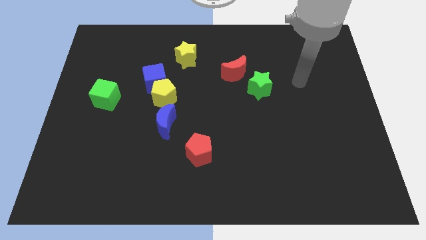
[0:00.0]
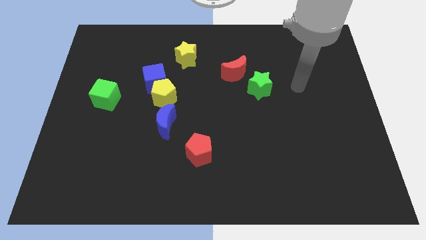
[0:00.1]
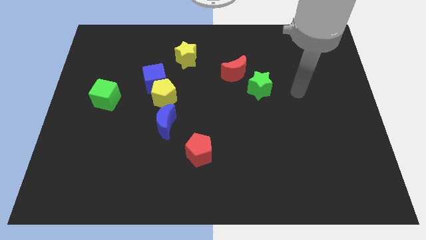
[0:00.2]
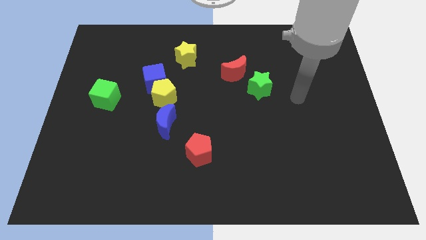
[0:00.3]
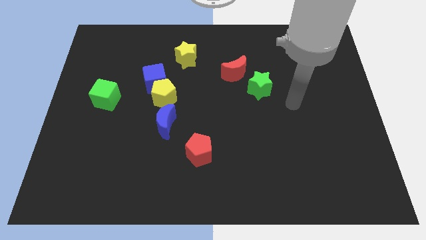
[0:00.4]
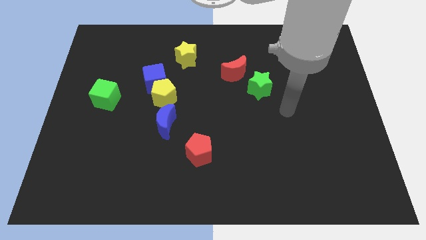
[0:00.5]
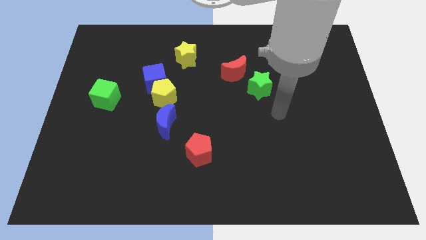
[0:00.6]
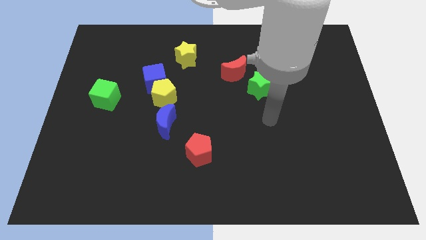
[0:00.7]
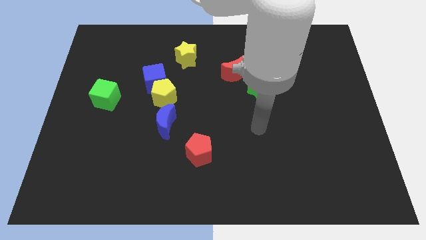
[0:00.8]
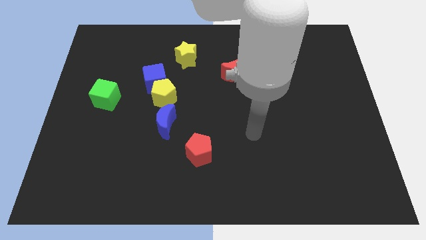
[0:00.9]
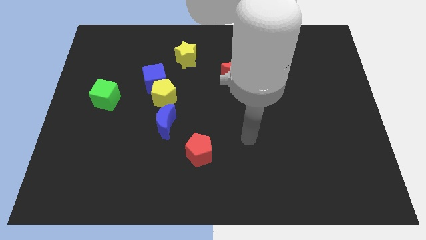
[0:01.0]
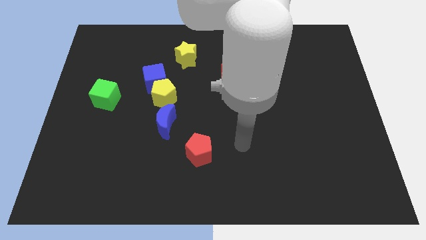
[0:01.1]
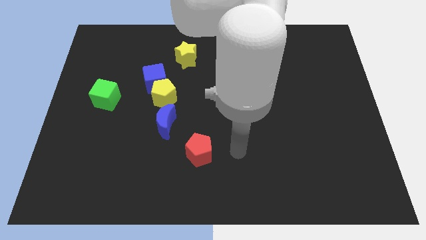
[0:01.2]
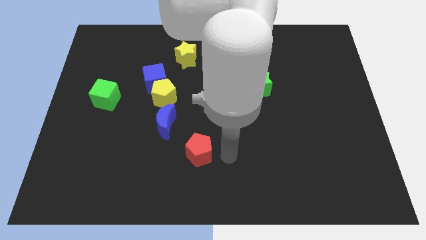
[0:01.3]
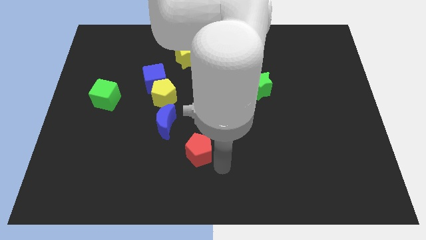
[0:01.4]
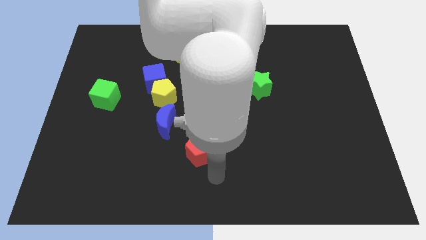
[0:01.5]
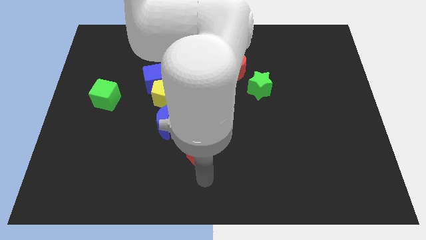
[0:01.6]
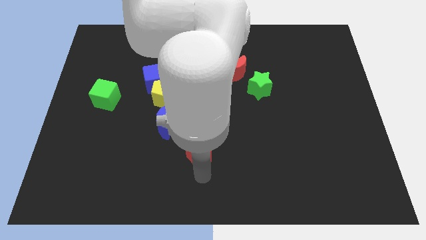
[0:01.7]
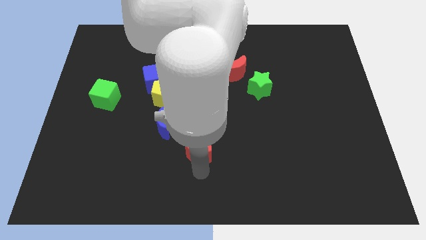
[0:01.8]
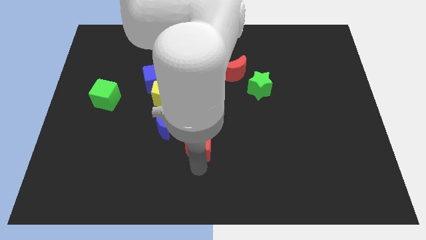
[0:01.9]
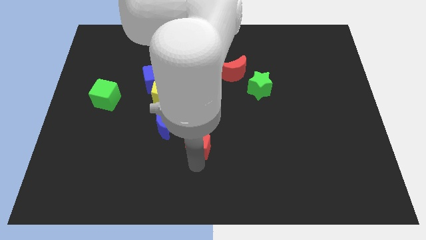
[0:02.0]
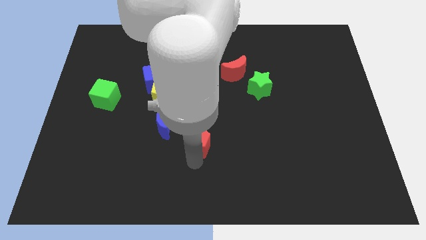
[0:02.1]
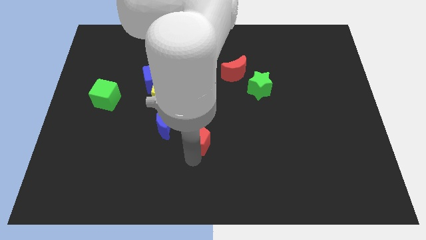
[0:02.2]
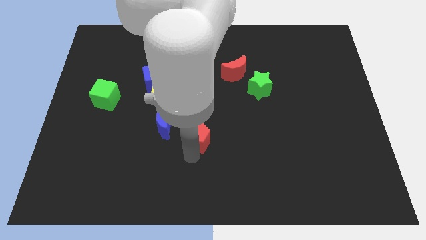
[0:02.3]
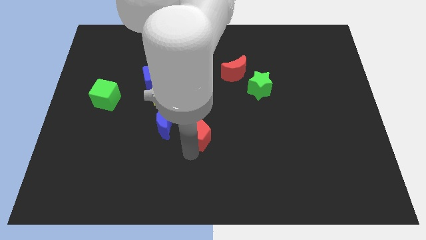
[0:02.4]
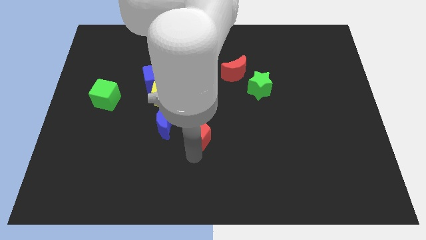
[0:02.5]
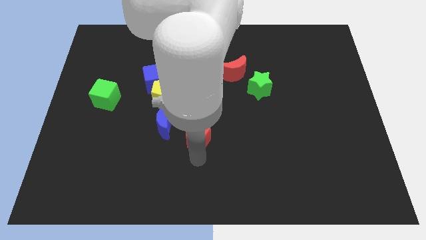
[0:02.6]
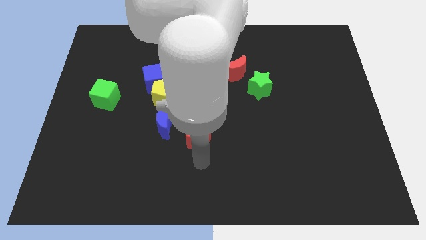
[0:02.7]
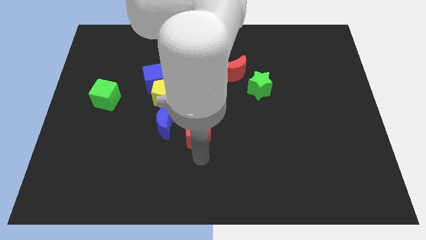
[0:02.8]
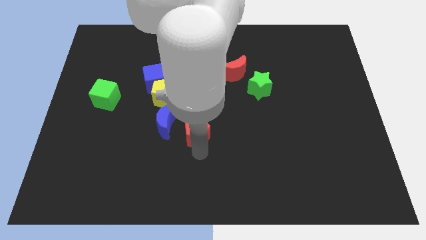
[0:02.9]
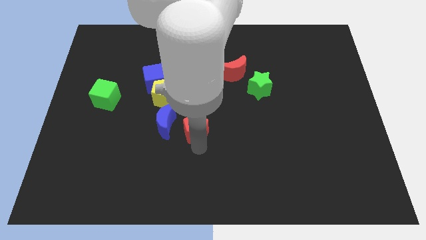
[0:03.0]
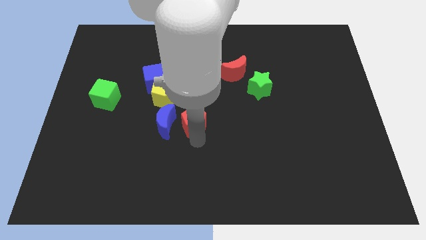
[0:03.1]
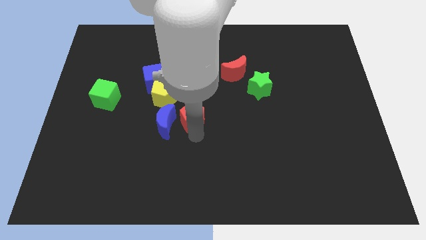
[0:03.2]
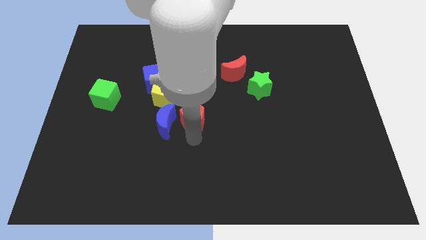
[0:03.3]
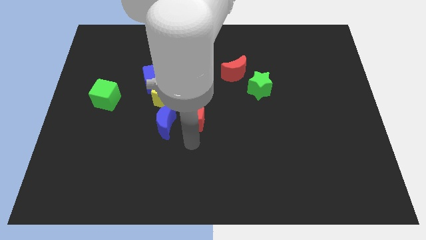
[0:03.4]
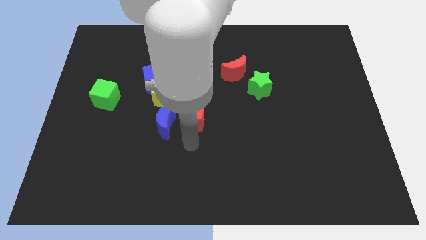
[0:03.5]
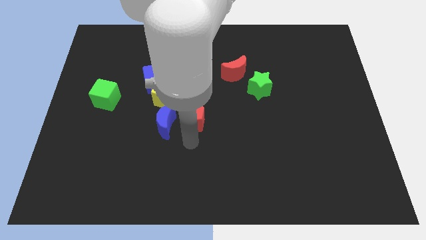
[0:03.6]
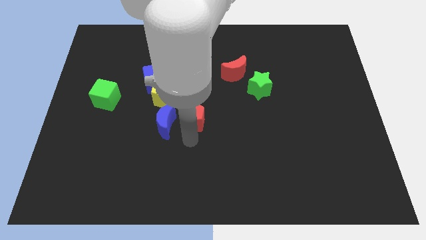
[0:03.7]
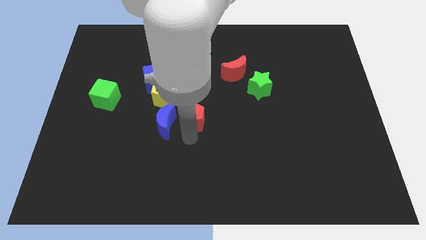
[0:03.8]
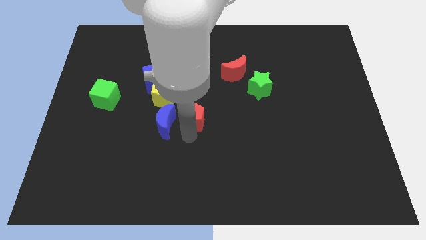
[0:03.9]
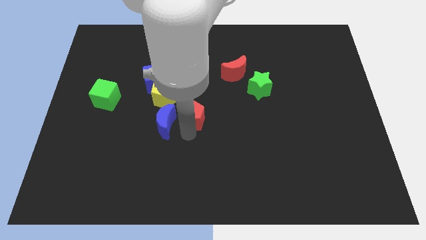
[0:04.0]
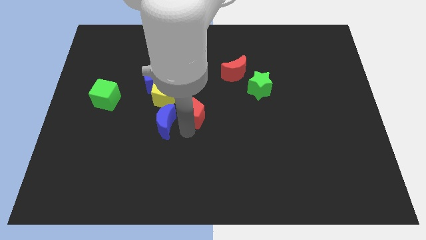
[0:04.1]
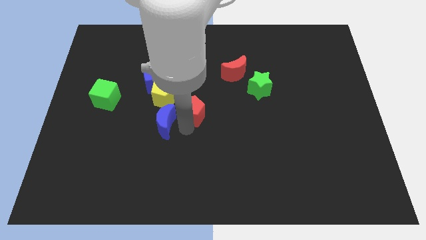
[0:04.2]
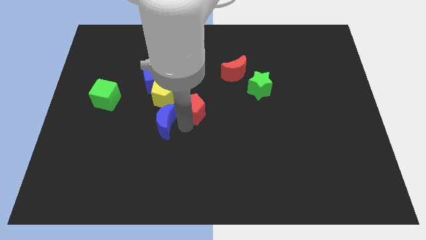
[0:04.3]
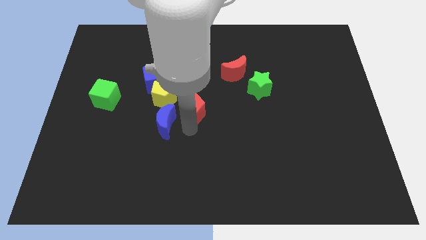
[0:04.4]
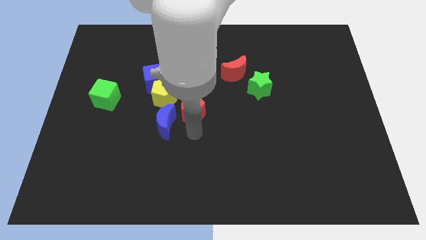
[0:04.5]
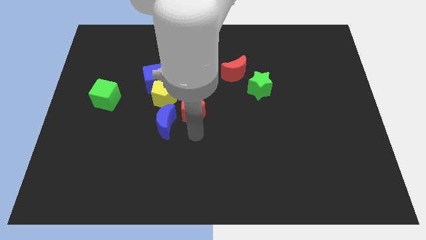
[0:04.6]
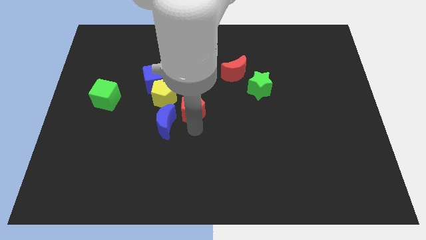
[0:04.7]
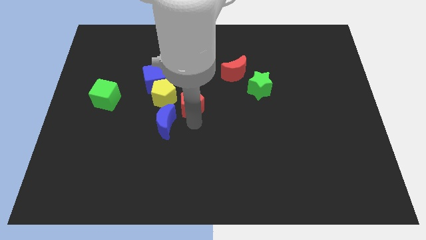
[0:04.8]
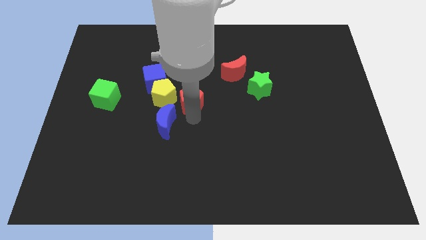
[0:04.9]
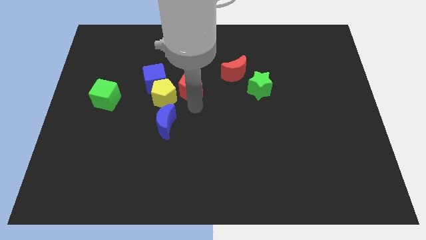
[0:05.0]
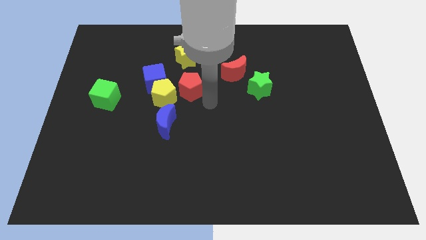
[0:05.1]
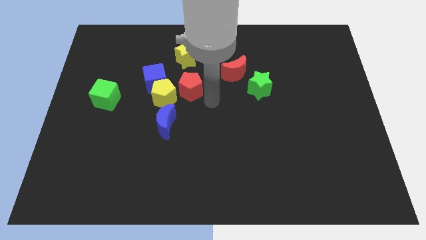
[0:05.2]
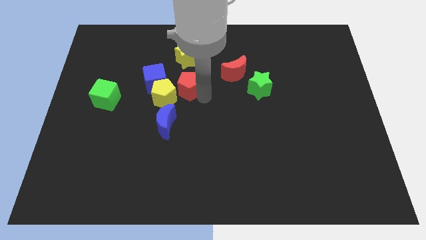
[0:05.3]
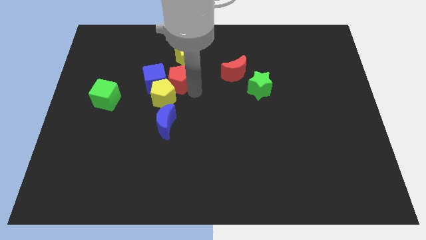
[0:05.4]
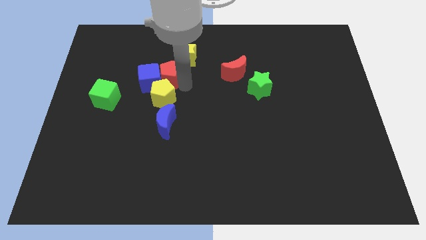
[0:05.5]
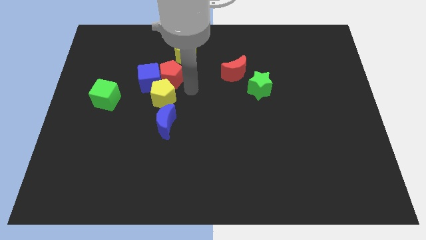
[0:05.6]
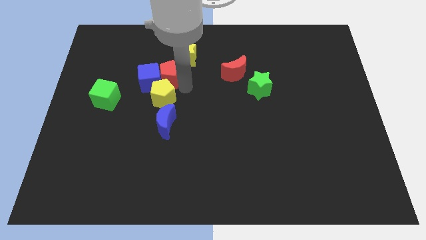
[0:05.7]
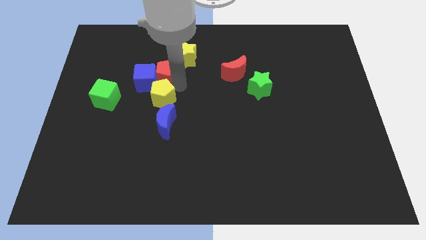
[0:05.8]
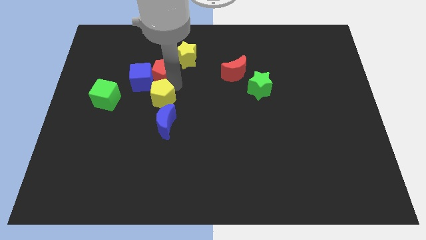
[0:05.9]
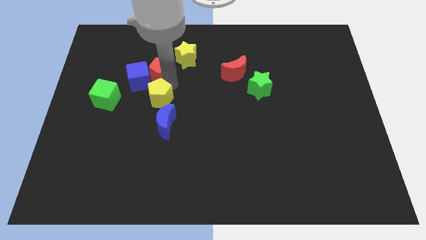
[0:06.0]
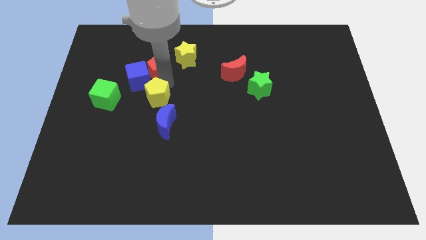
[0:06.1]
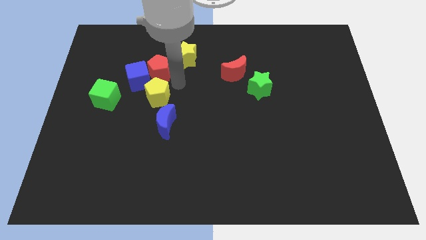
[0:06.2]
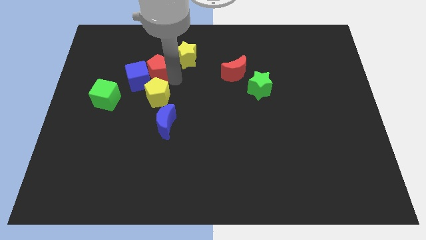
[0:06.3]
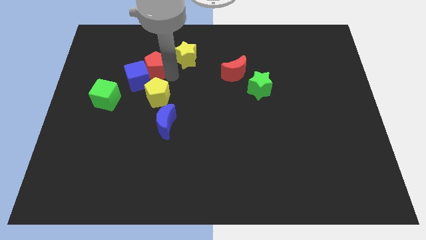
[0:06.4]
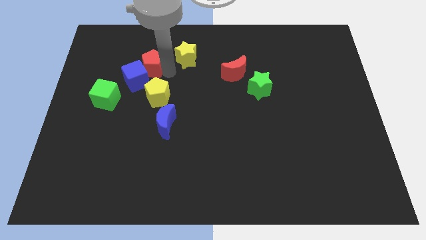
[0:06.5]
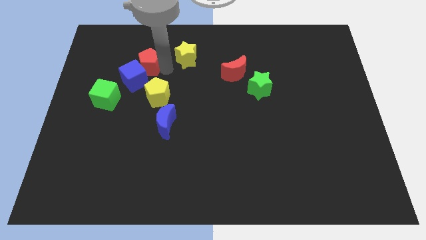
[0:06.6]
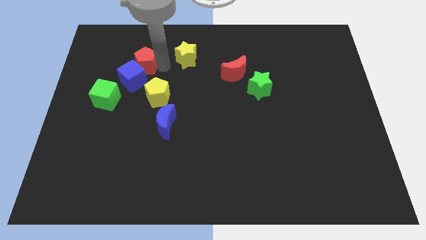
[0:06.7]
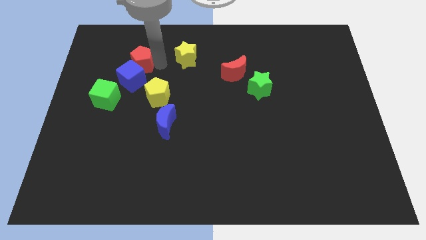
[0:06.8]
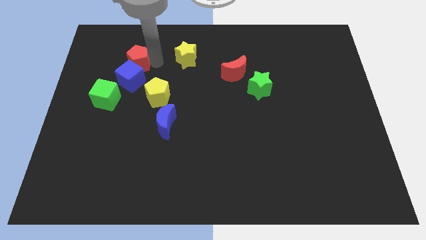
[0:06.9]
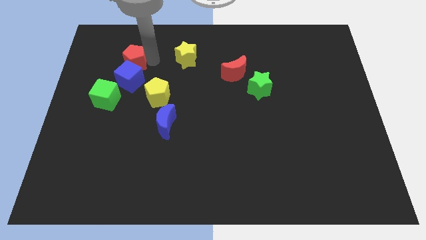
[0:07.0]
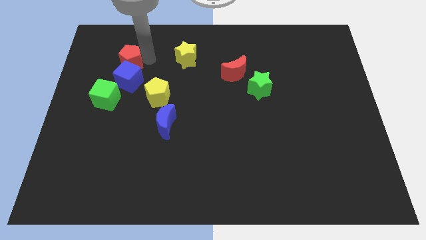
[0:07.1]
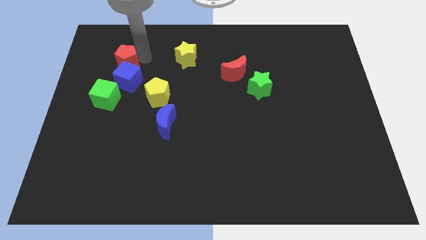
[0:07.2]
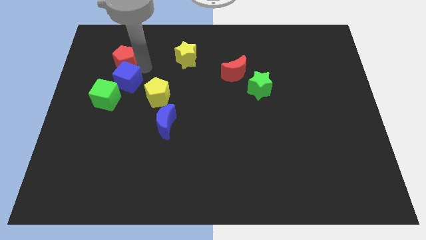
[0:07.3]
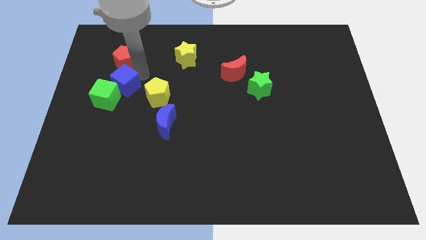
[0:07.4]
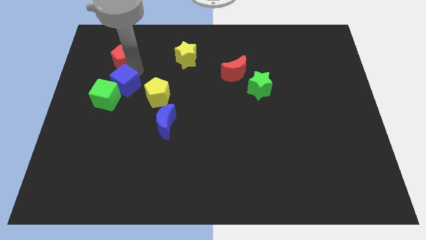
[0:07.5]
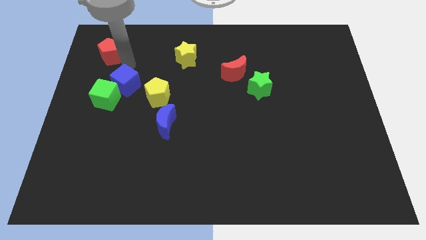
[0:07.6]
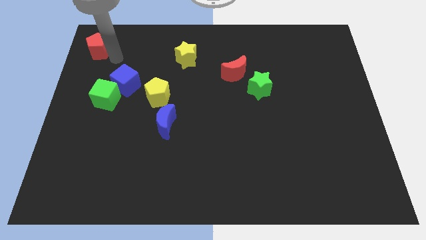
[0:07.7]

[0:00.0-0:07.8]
move the red pentagon to the top left of the board
